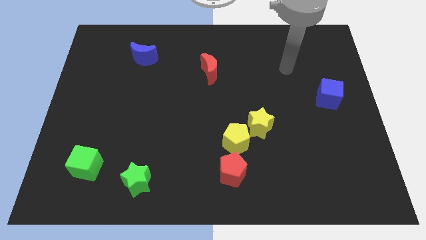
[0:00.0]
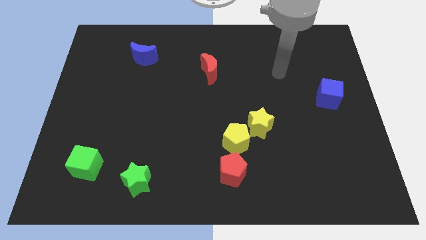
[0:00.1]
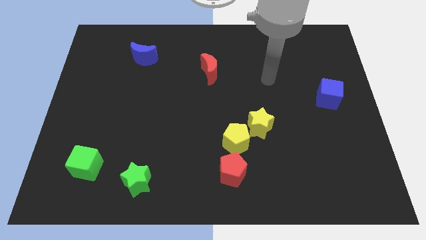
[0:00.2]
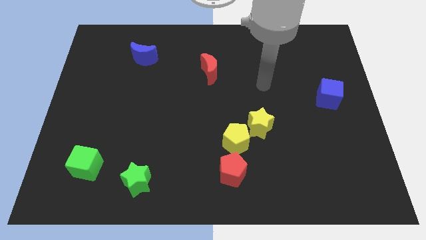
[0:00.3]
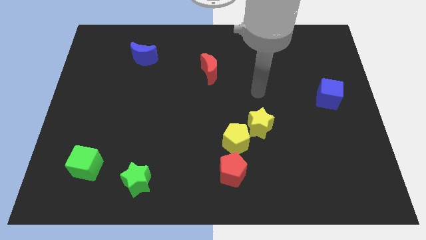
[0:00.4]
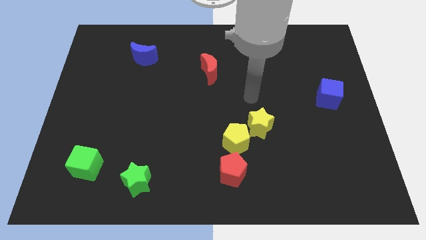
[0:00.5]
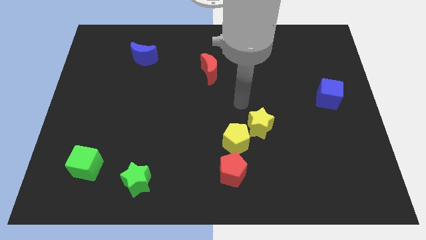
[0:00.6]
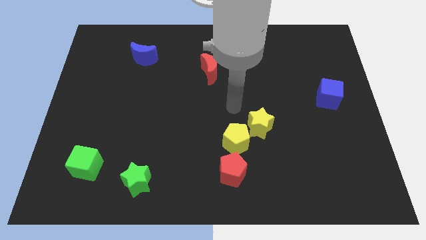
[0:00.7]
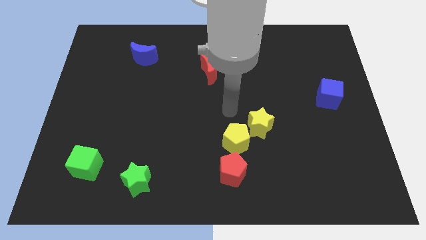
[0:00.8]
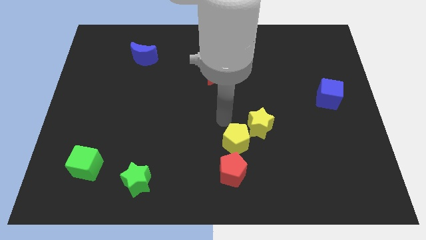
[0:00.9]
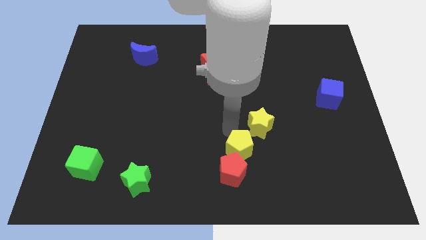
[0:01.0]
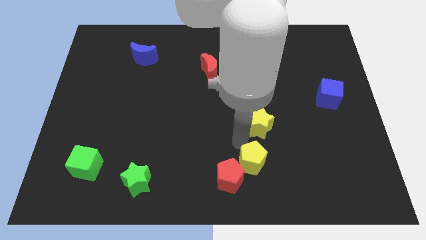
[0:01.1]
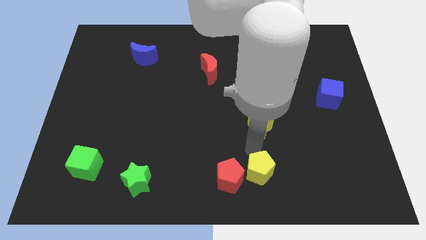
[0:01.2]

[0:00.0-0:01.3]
pull the yellow star apart from the yellow pentagon

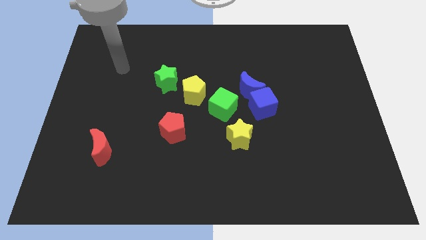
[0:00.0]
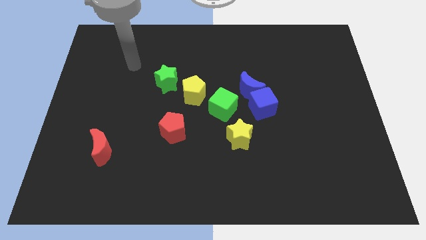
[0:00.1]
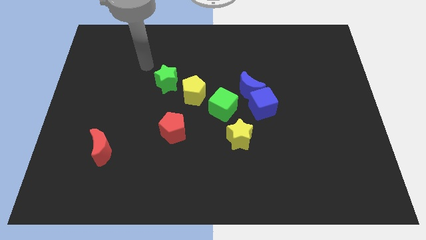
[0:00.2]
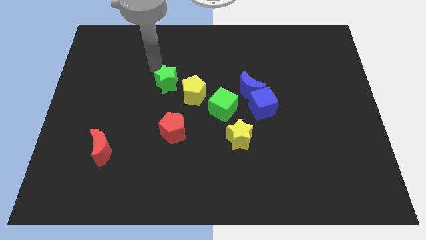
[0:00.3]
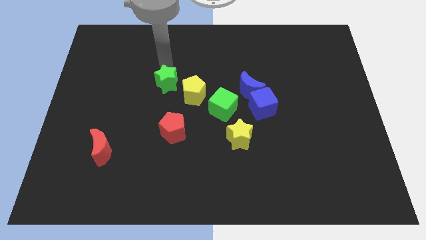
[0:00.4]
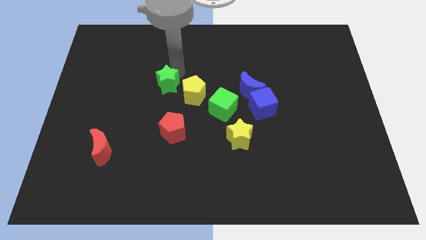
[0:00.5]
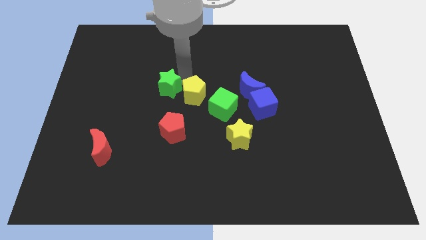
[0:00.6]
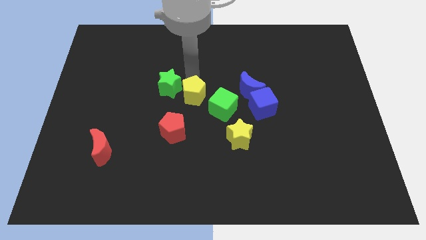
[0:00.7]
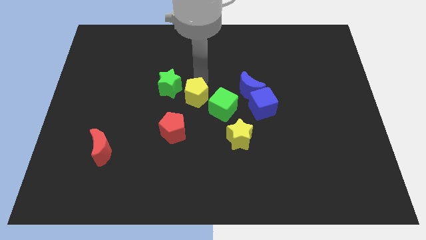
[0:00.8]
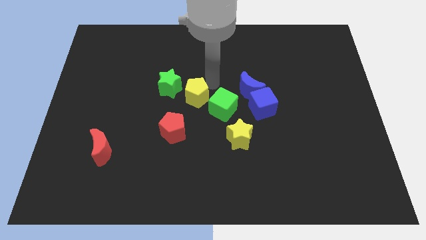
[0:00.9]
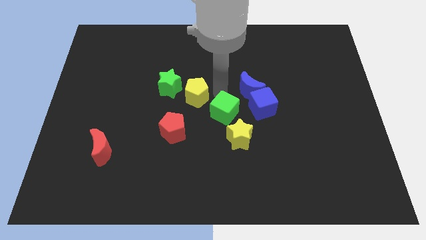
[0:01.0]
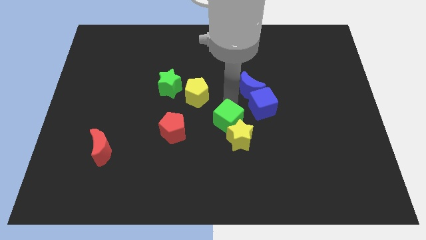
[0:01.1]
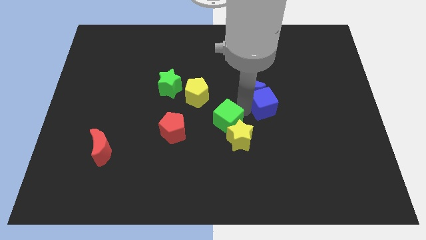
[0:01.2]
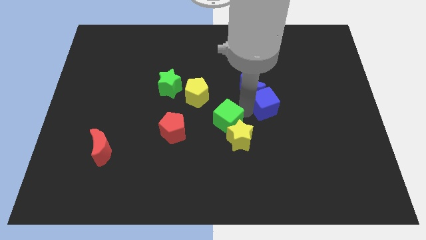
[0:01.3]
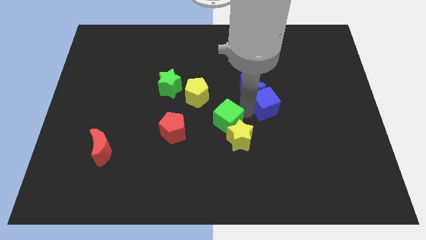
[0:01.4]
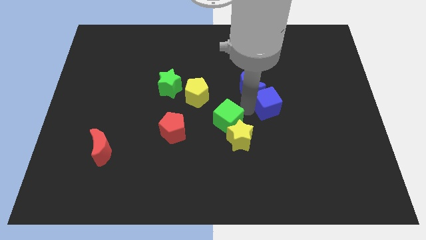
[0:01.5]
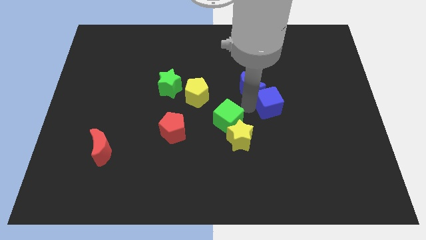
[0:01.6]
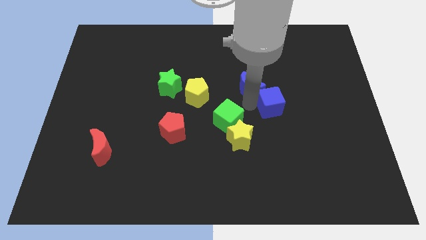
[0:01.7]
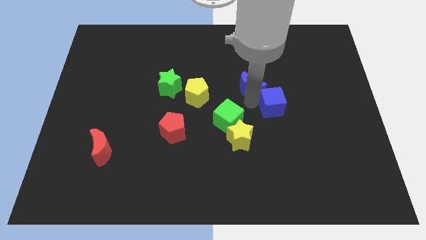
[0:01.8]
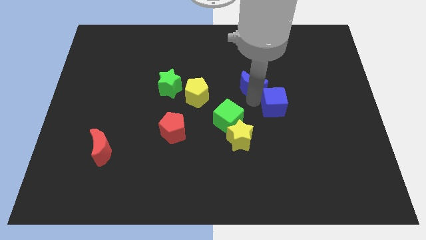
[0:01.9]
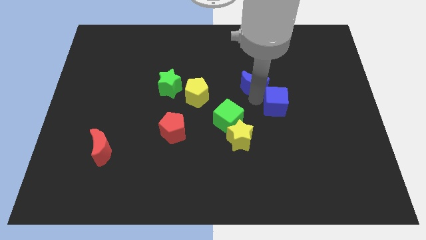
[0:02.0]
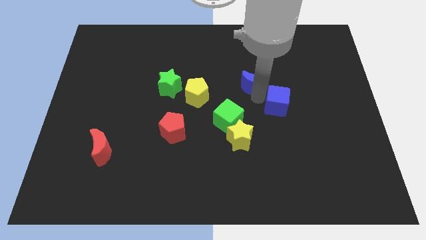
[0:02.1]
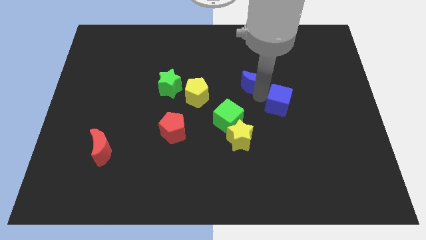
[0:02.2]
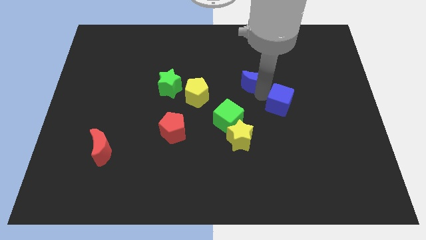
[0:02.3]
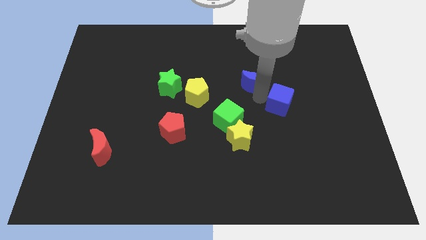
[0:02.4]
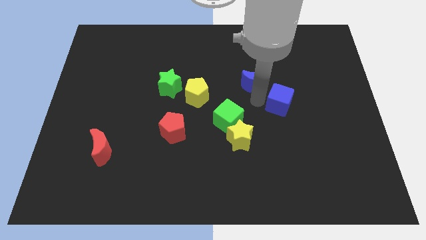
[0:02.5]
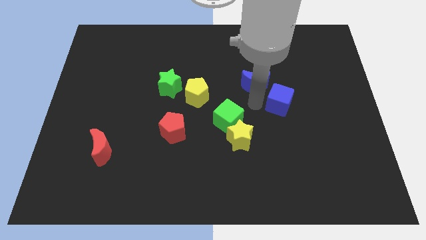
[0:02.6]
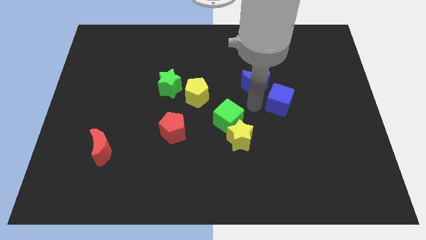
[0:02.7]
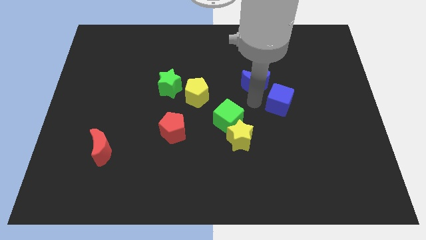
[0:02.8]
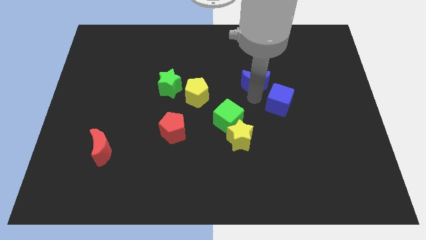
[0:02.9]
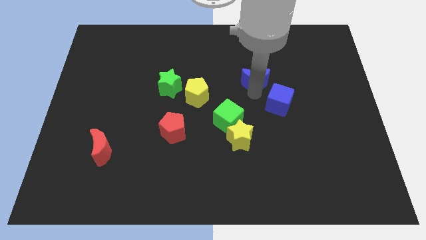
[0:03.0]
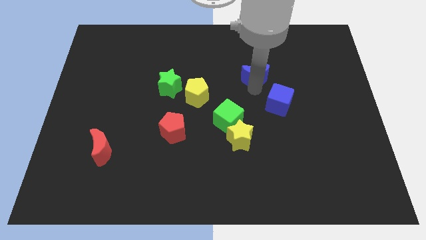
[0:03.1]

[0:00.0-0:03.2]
pull the blue moon apart from the blue cube and green cube

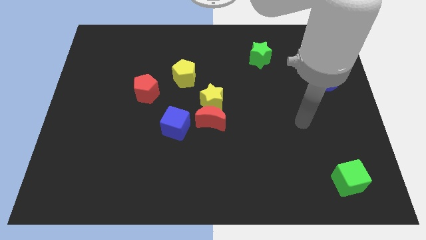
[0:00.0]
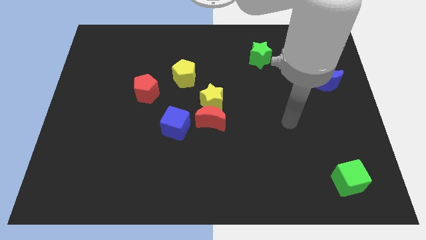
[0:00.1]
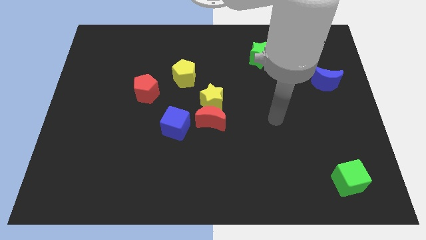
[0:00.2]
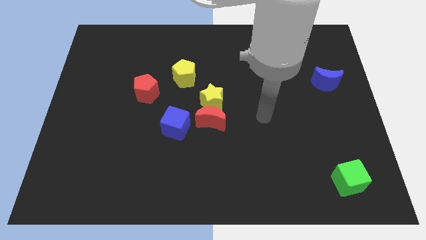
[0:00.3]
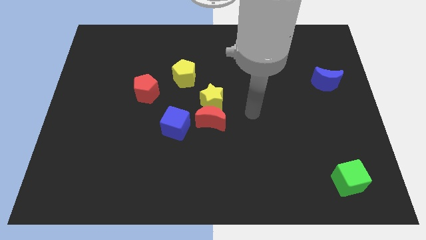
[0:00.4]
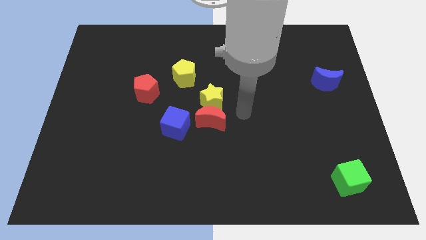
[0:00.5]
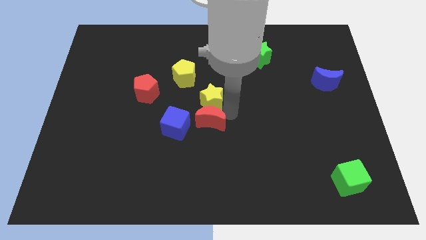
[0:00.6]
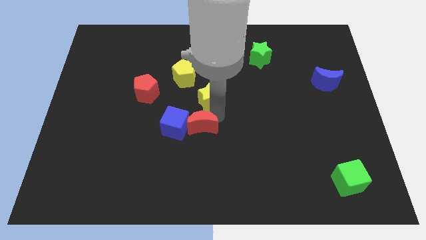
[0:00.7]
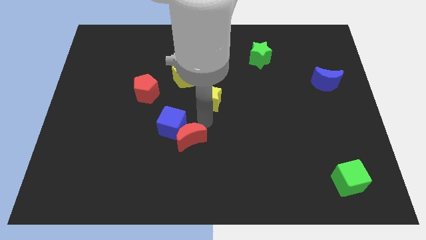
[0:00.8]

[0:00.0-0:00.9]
pull the yellow star apart from the red moon

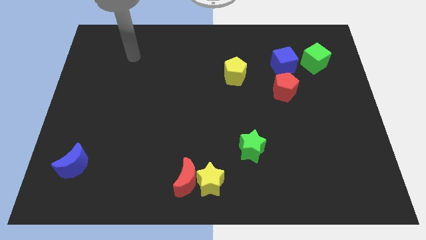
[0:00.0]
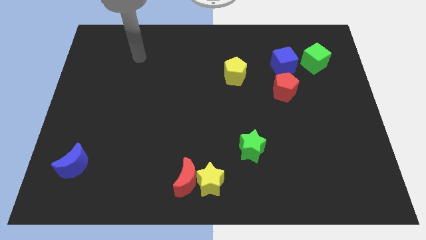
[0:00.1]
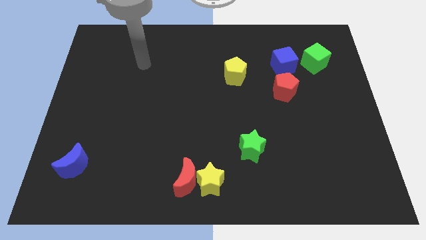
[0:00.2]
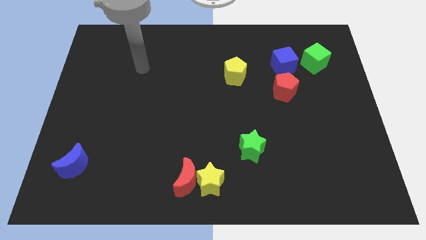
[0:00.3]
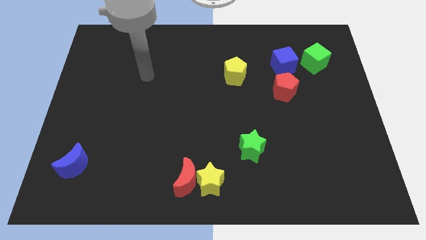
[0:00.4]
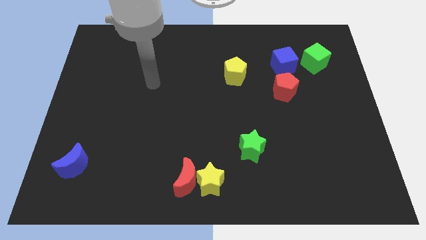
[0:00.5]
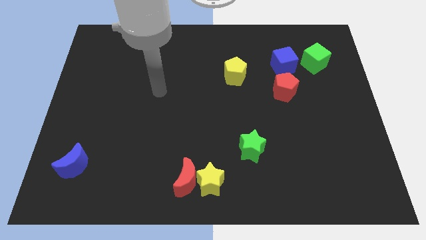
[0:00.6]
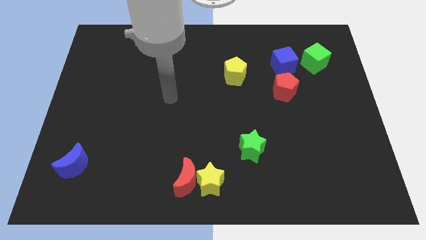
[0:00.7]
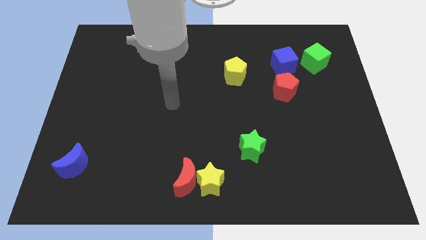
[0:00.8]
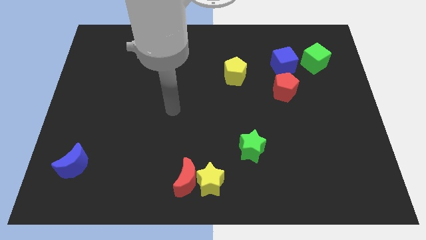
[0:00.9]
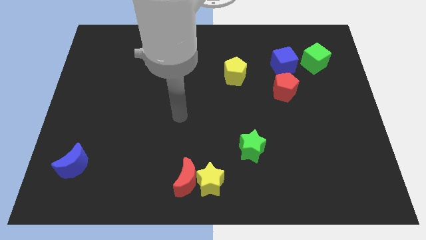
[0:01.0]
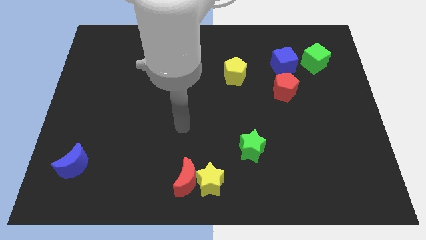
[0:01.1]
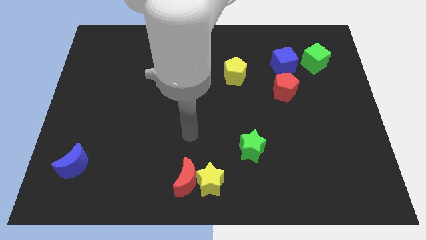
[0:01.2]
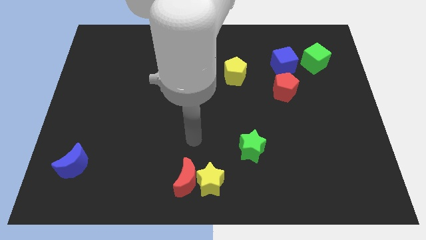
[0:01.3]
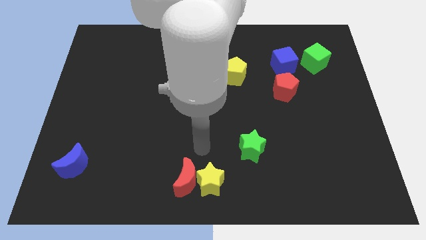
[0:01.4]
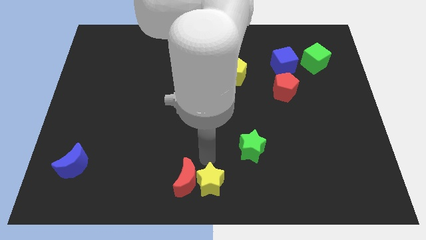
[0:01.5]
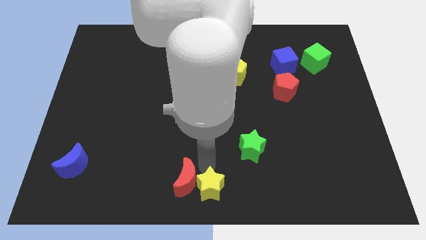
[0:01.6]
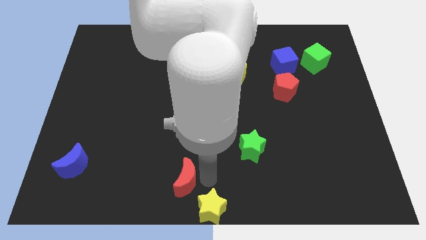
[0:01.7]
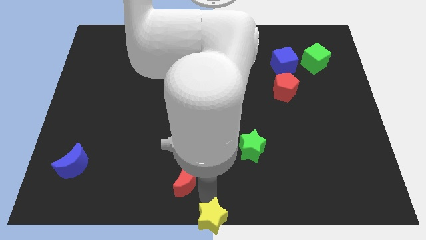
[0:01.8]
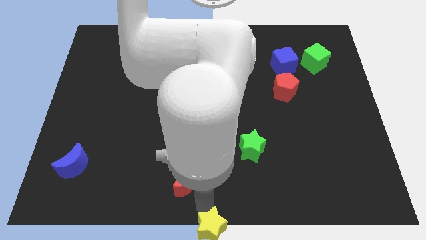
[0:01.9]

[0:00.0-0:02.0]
move the red moon away from the yellow star

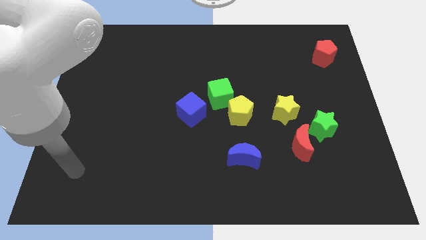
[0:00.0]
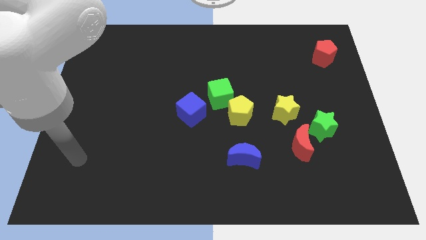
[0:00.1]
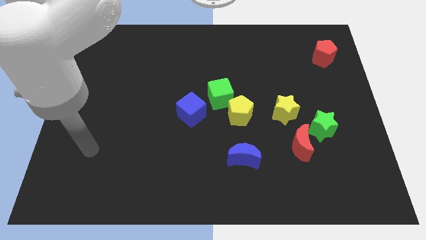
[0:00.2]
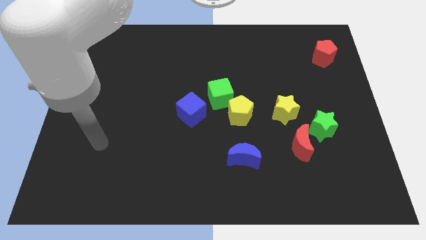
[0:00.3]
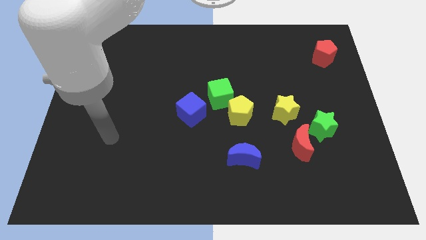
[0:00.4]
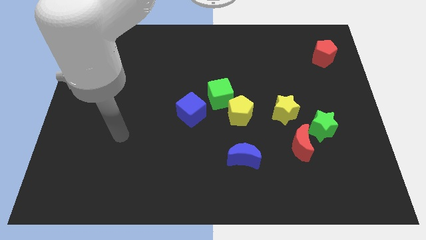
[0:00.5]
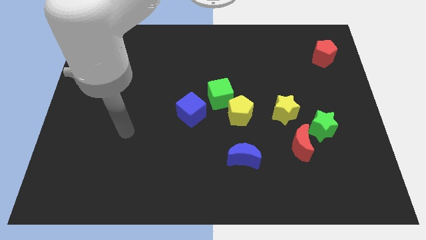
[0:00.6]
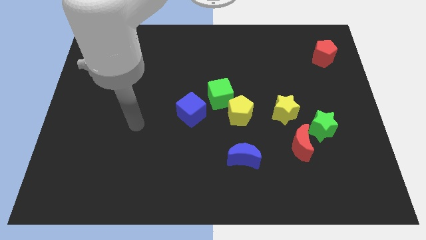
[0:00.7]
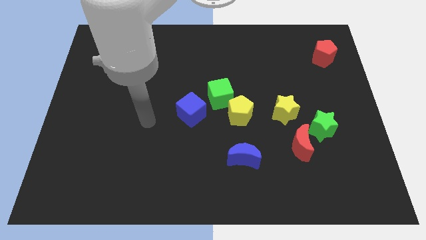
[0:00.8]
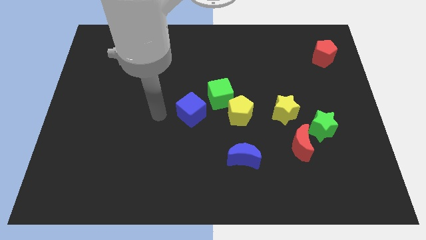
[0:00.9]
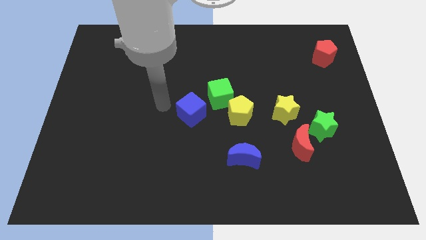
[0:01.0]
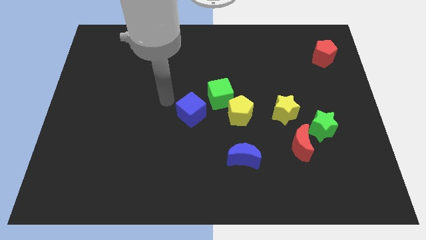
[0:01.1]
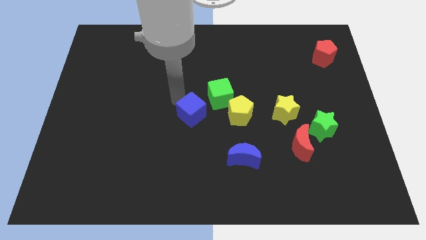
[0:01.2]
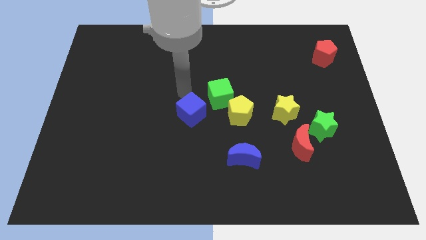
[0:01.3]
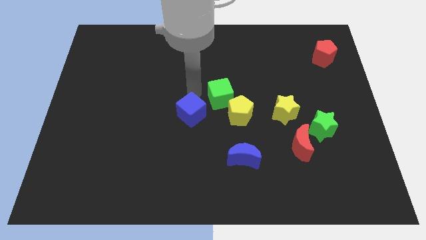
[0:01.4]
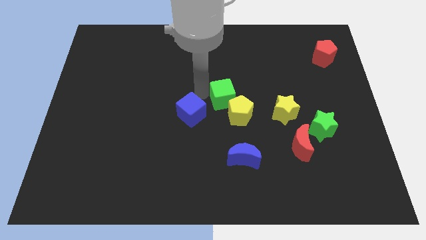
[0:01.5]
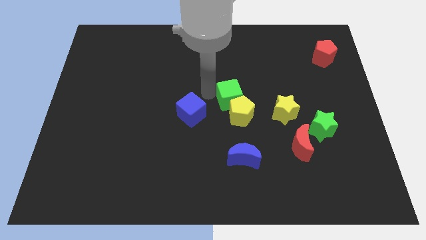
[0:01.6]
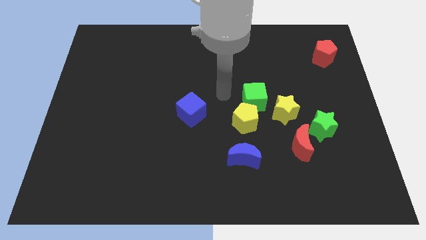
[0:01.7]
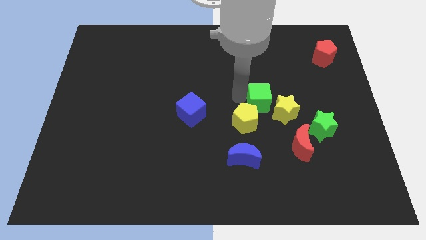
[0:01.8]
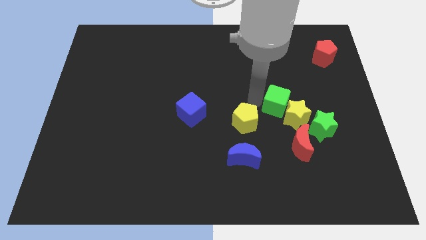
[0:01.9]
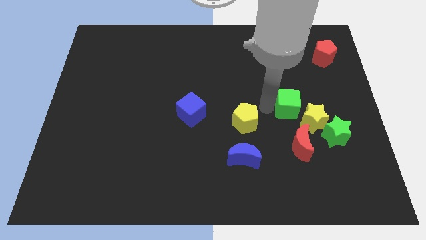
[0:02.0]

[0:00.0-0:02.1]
separate the yellow pentagon from the green cube
